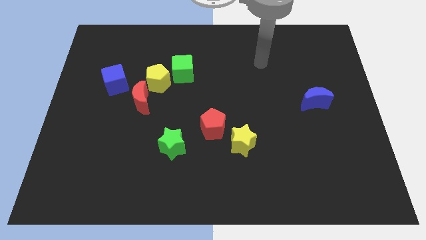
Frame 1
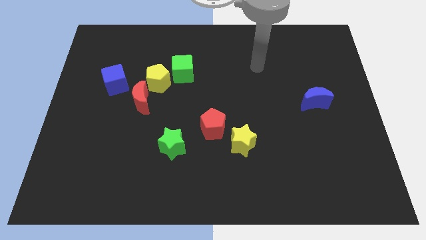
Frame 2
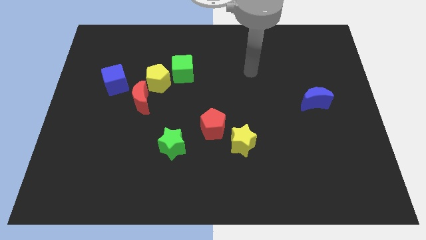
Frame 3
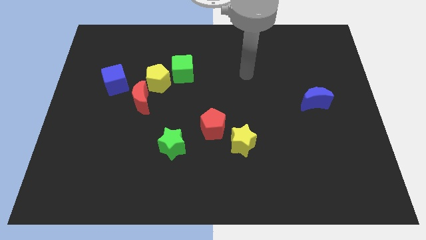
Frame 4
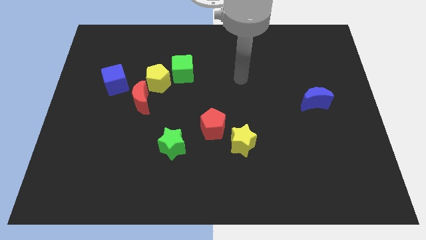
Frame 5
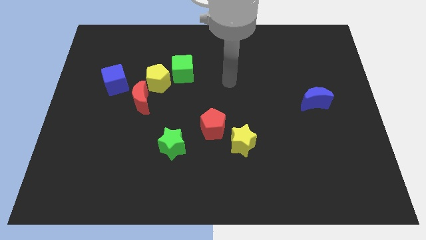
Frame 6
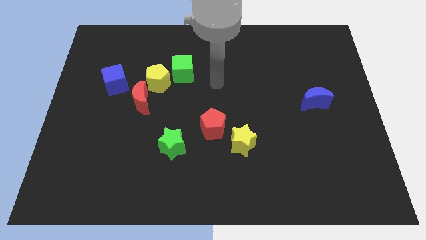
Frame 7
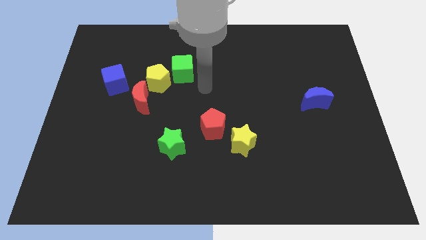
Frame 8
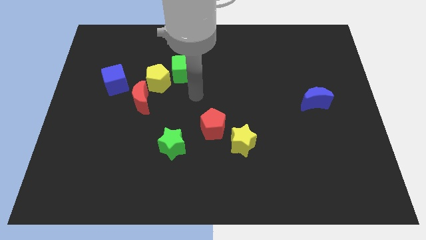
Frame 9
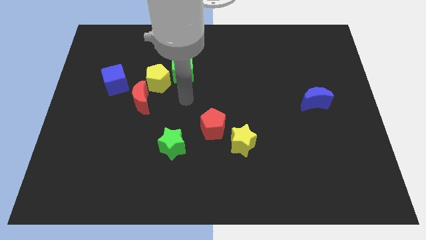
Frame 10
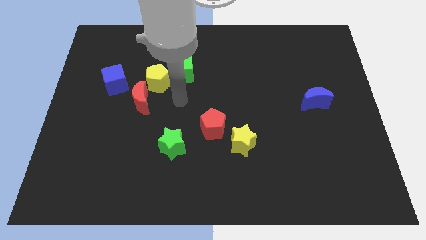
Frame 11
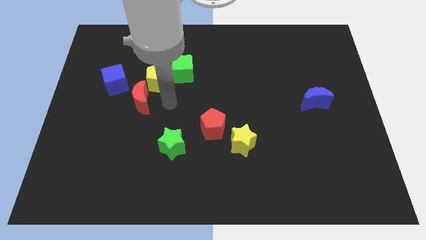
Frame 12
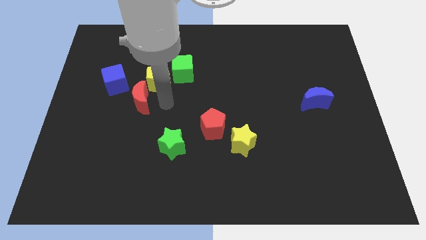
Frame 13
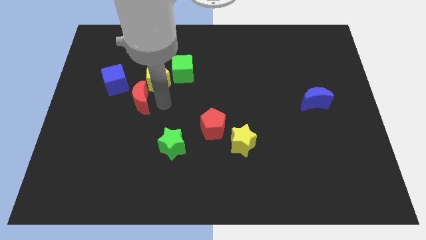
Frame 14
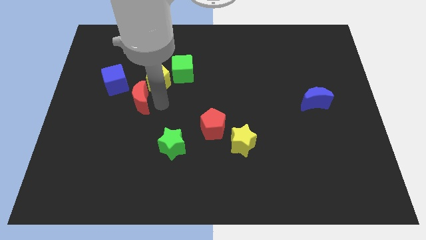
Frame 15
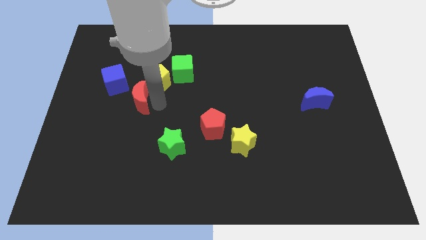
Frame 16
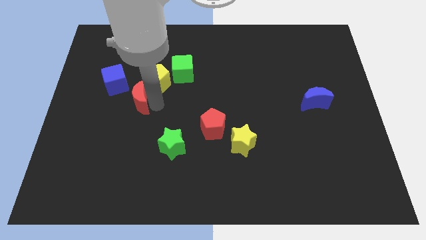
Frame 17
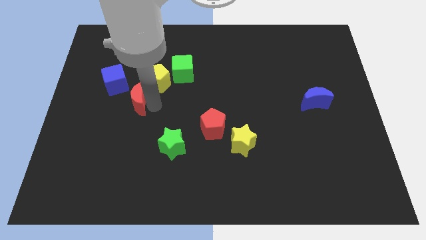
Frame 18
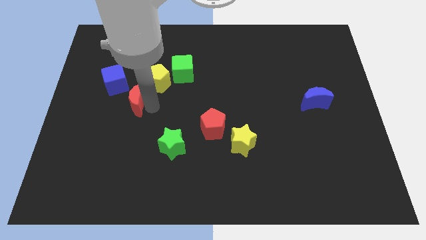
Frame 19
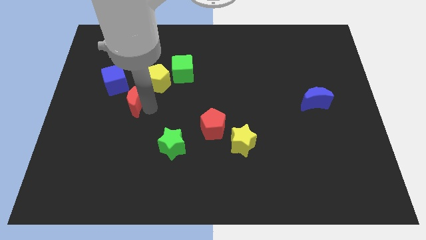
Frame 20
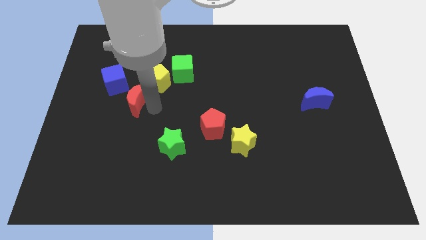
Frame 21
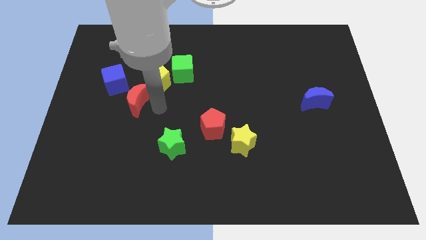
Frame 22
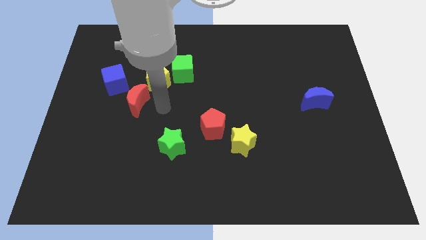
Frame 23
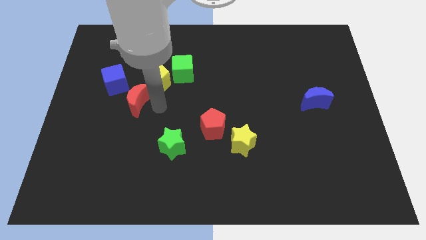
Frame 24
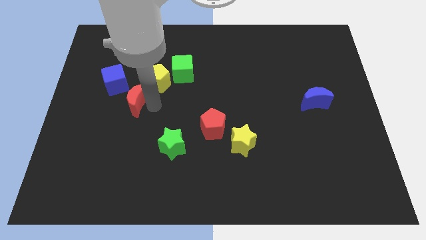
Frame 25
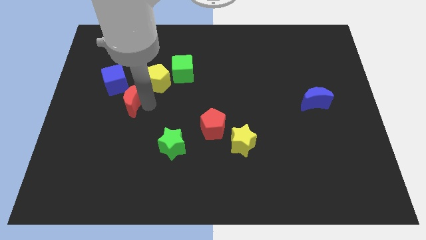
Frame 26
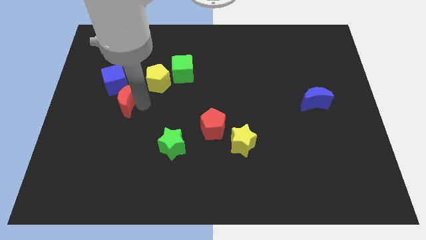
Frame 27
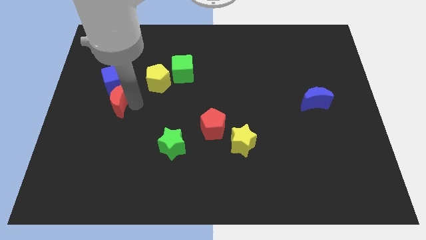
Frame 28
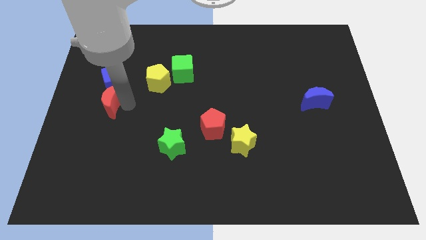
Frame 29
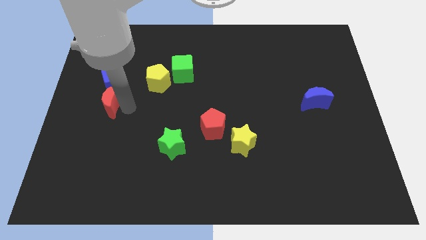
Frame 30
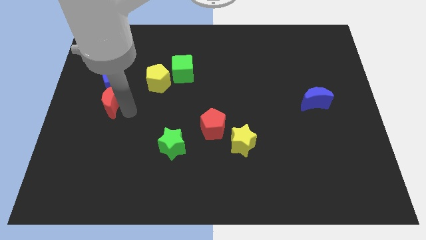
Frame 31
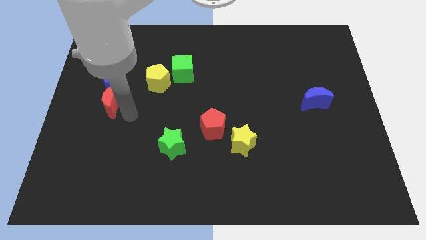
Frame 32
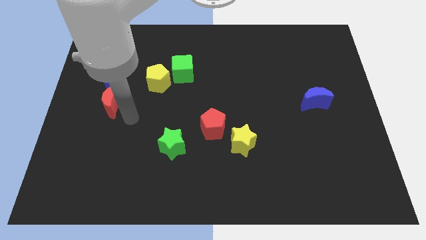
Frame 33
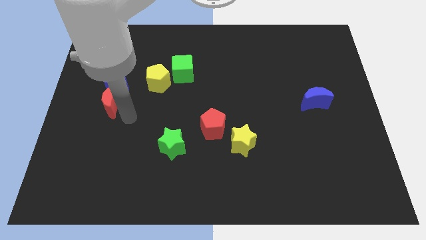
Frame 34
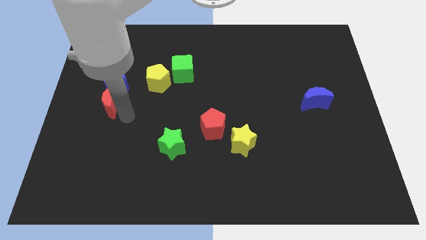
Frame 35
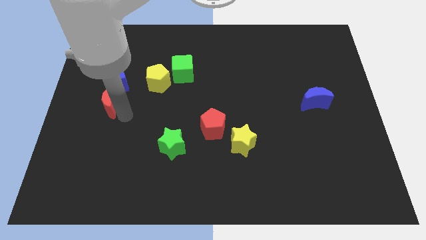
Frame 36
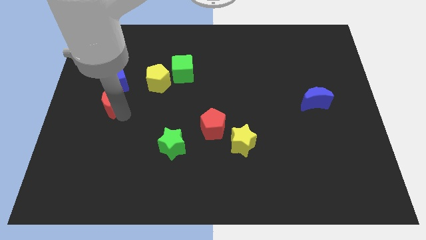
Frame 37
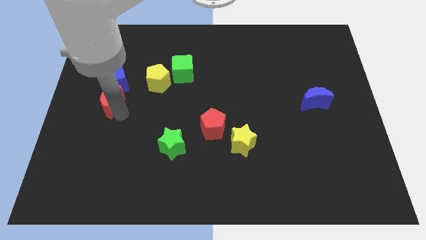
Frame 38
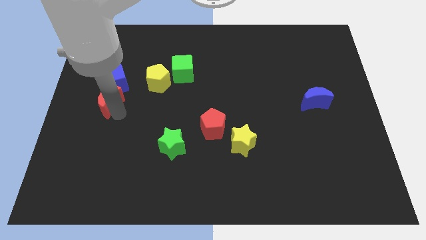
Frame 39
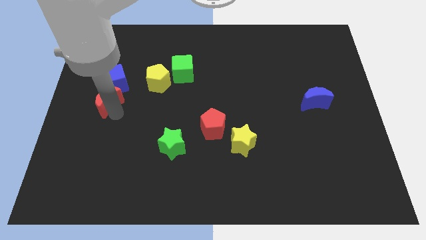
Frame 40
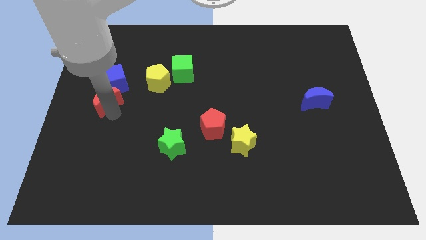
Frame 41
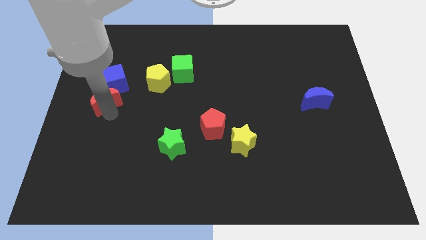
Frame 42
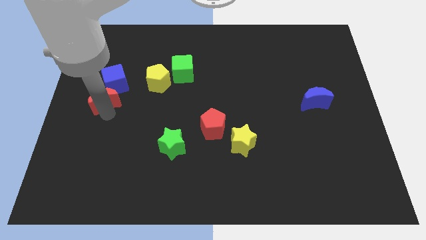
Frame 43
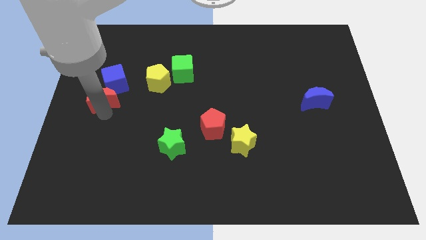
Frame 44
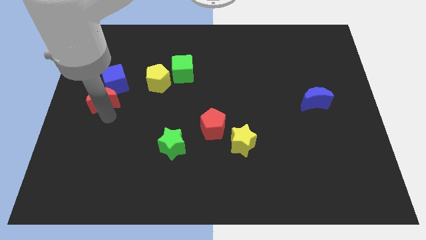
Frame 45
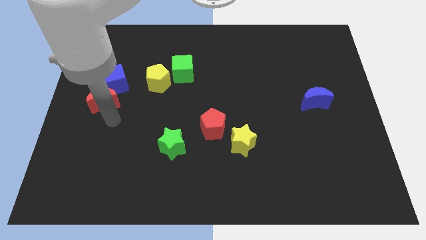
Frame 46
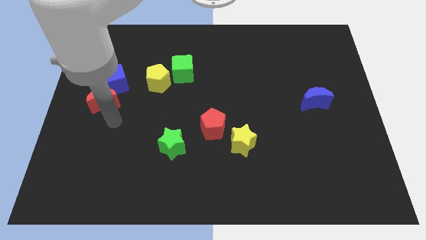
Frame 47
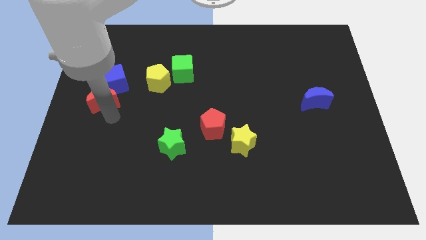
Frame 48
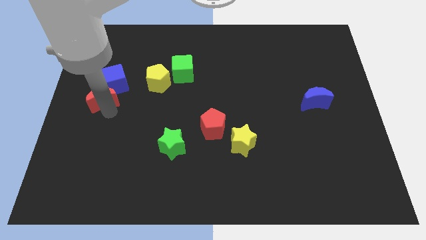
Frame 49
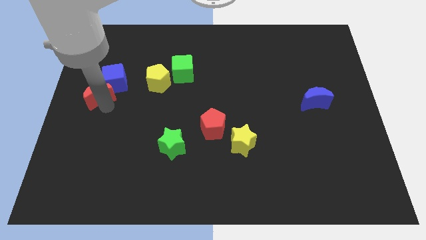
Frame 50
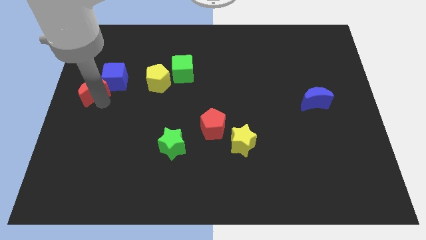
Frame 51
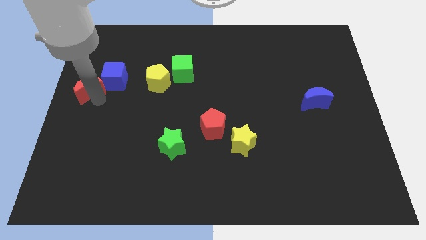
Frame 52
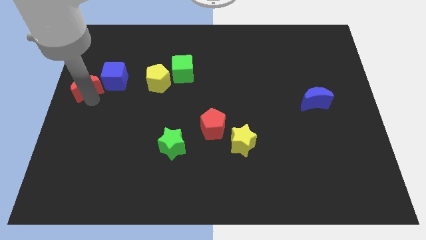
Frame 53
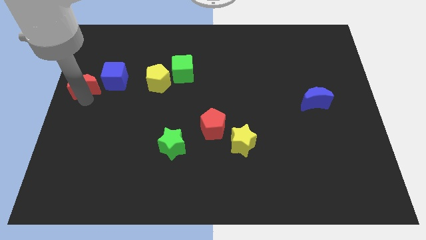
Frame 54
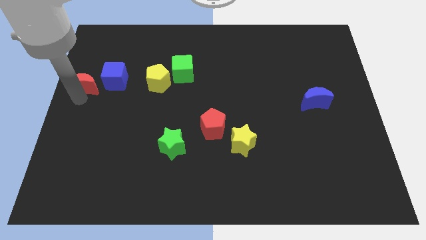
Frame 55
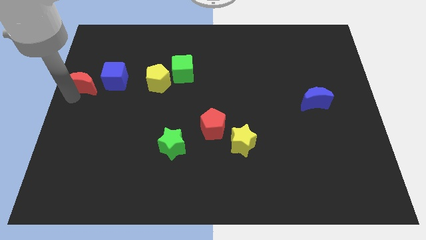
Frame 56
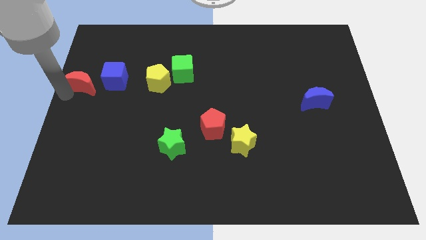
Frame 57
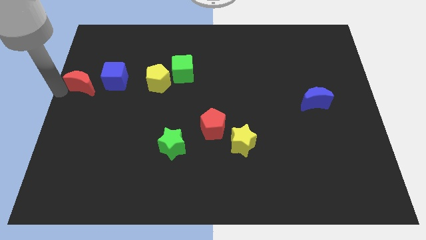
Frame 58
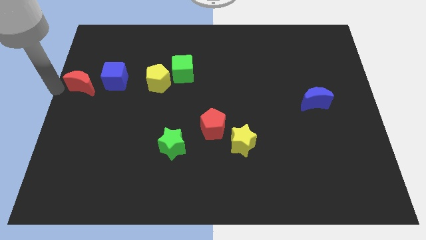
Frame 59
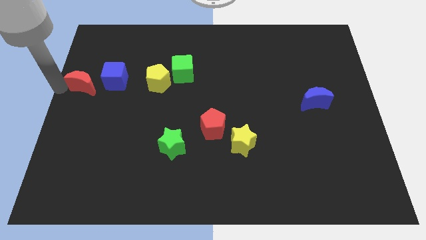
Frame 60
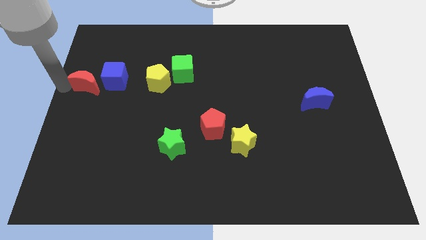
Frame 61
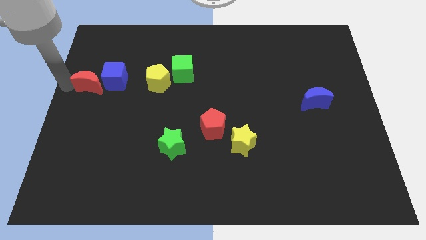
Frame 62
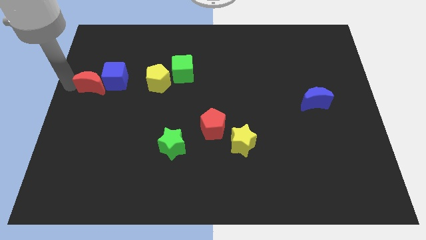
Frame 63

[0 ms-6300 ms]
move the red moon just left of the yellow pentagon
